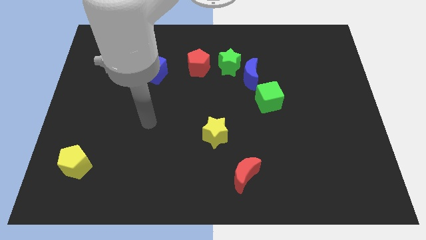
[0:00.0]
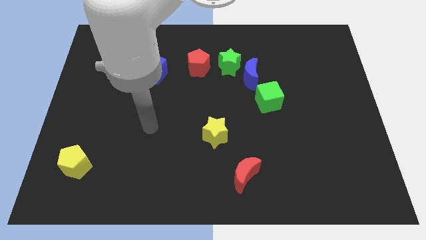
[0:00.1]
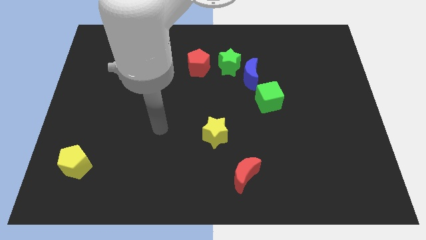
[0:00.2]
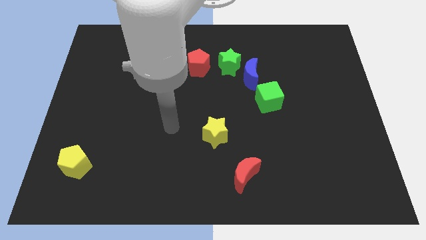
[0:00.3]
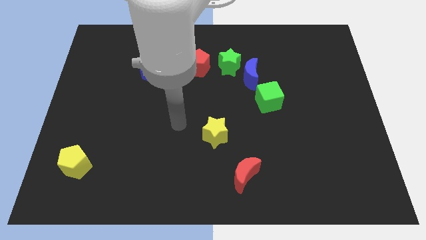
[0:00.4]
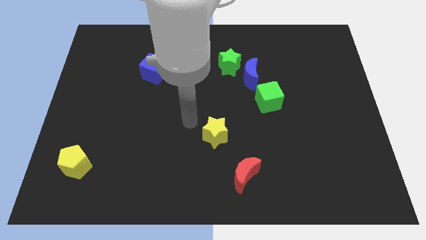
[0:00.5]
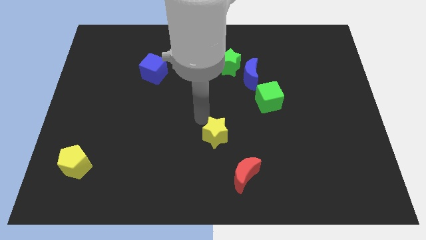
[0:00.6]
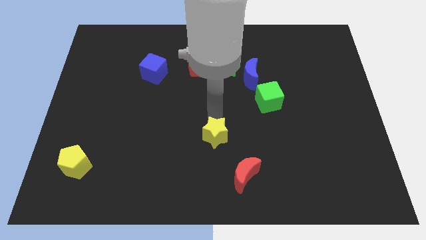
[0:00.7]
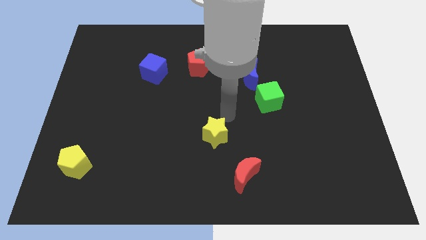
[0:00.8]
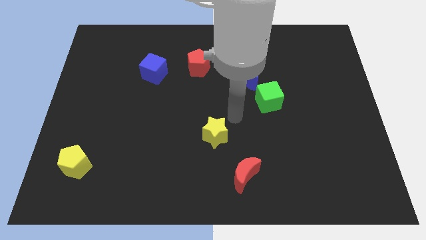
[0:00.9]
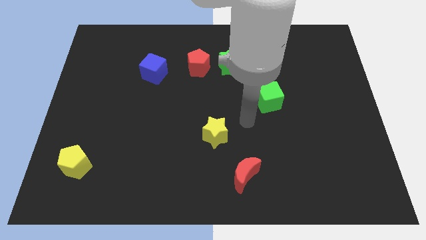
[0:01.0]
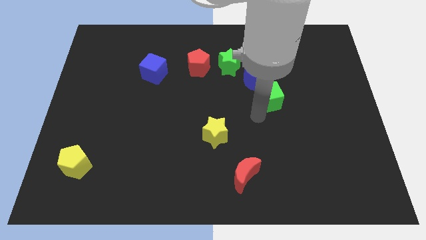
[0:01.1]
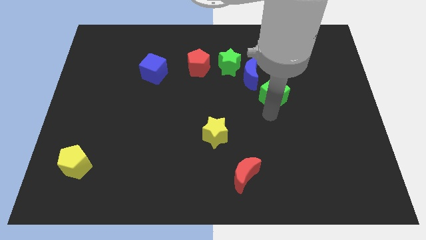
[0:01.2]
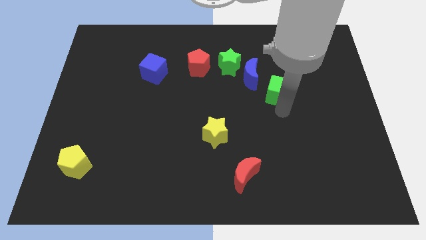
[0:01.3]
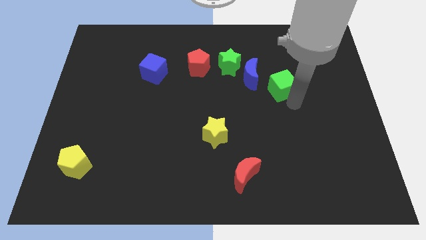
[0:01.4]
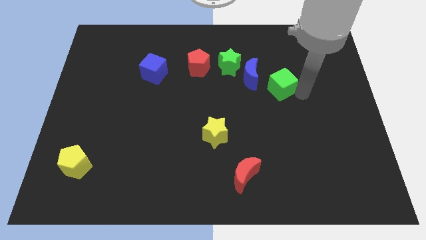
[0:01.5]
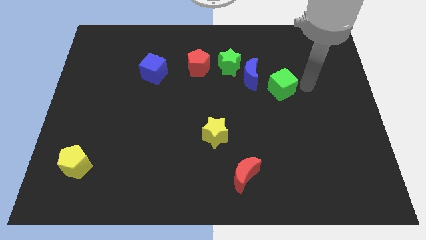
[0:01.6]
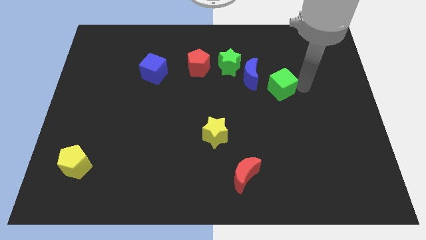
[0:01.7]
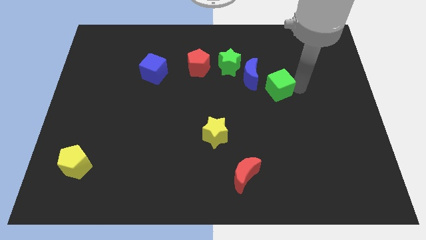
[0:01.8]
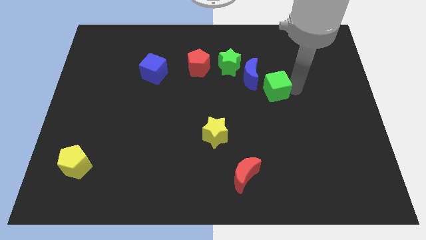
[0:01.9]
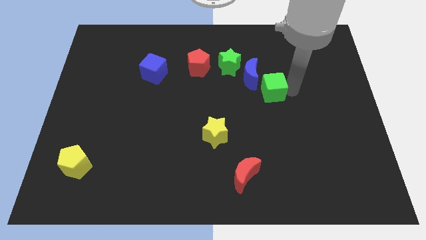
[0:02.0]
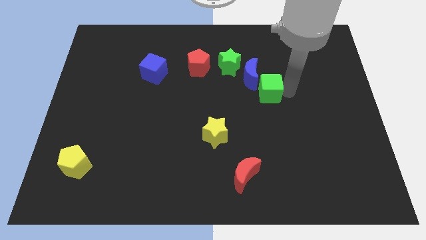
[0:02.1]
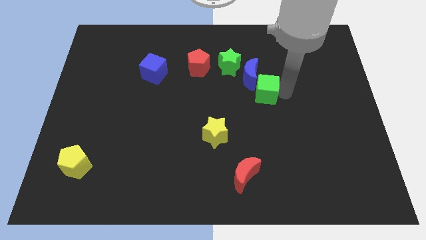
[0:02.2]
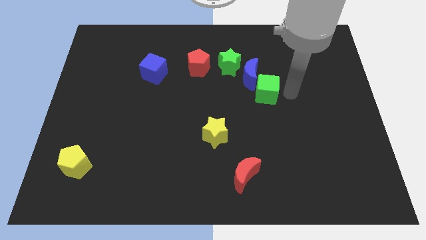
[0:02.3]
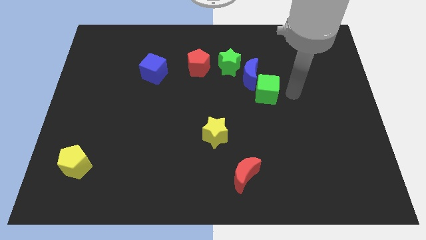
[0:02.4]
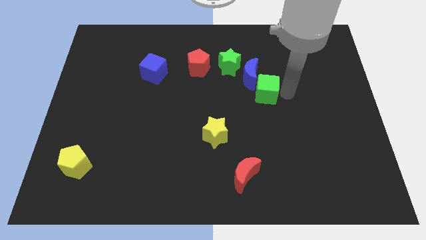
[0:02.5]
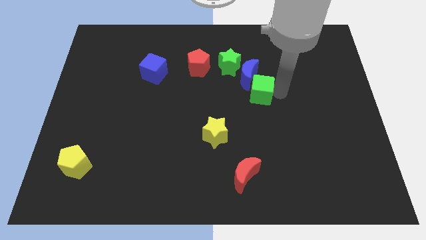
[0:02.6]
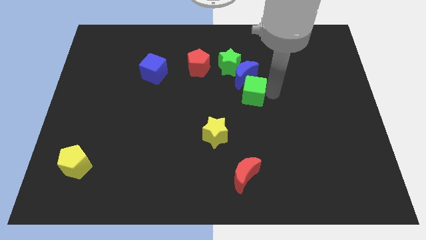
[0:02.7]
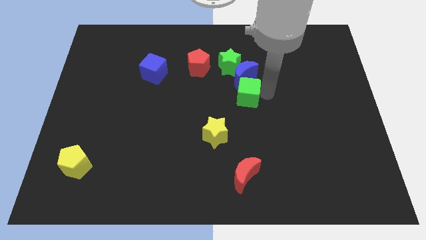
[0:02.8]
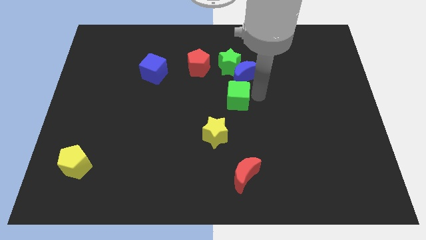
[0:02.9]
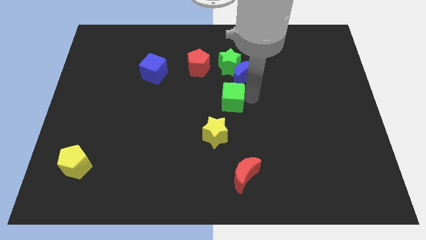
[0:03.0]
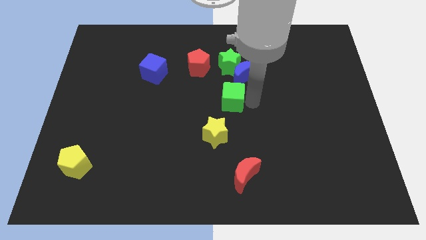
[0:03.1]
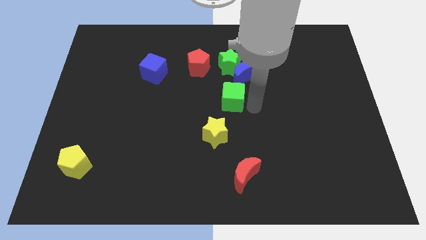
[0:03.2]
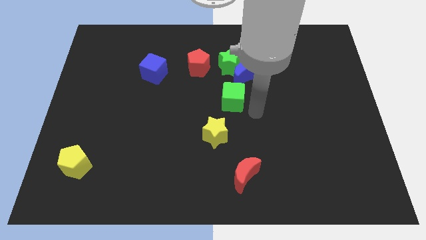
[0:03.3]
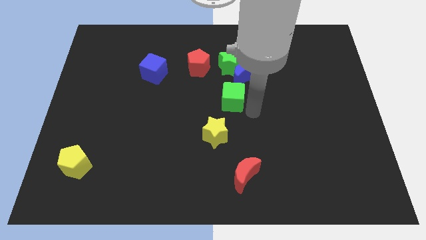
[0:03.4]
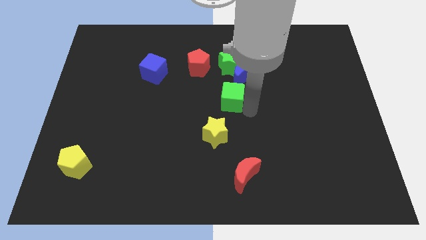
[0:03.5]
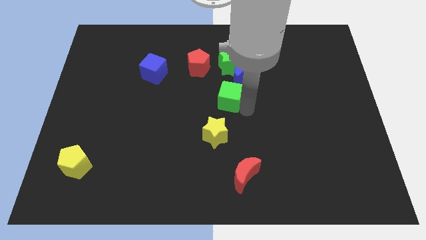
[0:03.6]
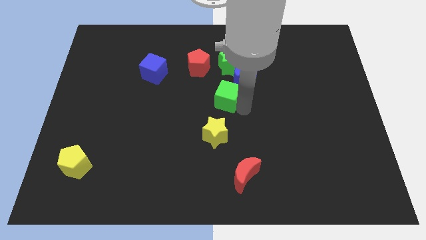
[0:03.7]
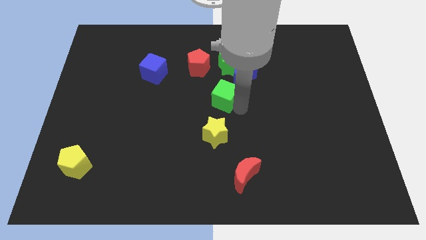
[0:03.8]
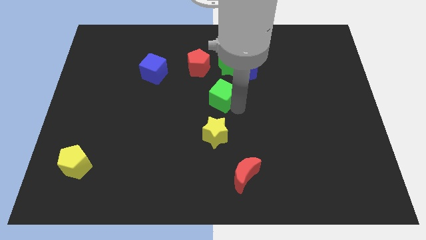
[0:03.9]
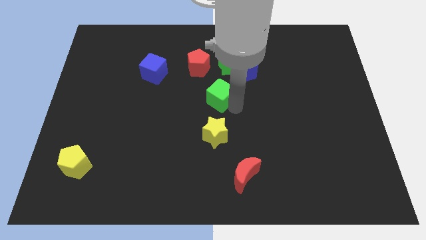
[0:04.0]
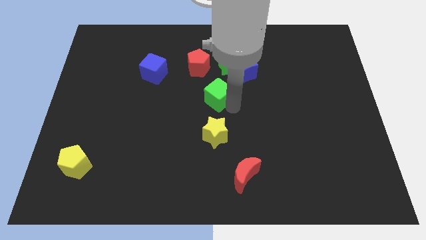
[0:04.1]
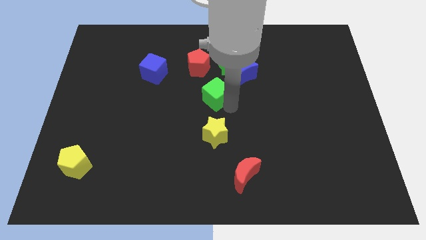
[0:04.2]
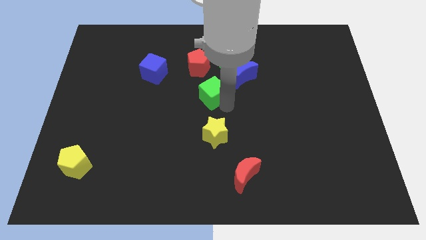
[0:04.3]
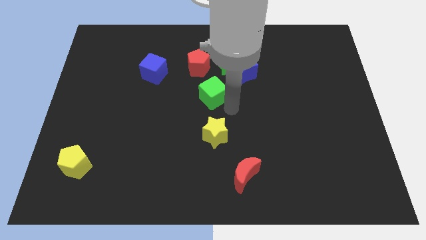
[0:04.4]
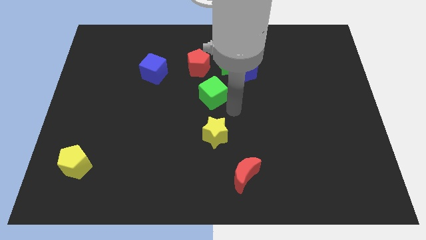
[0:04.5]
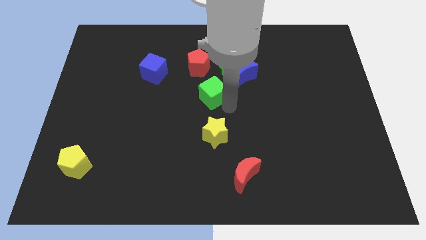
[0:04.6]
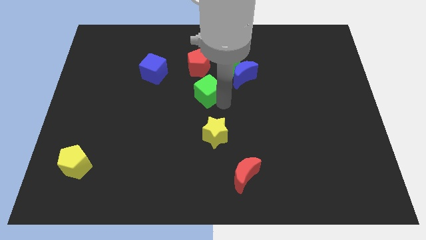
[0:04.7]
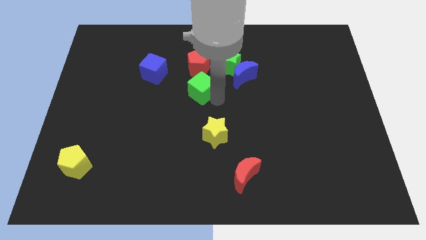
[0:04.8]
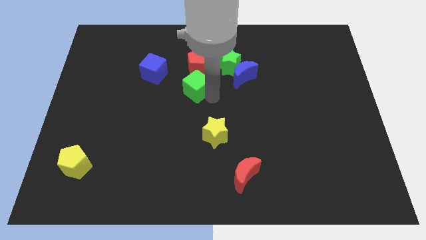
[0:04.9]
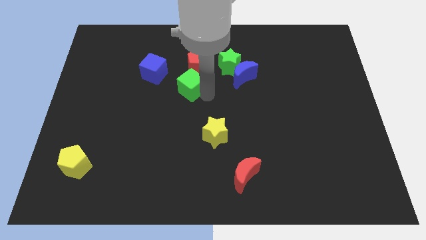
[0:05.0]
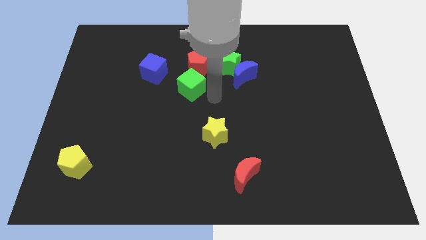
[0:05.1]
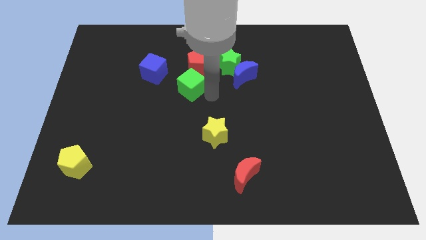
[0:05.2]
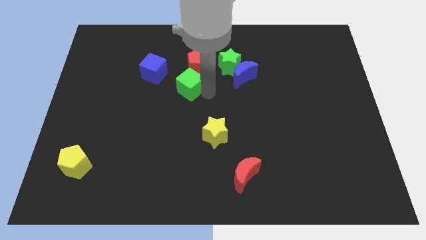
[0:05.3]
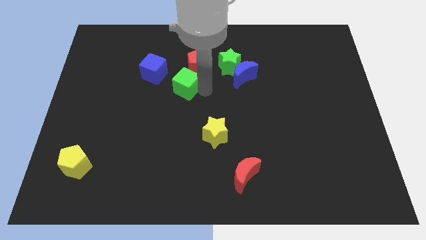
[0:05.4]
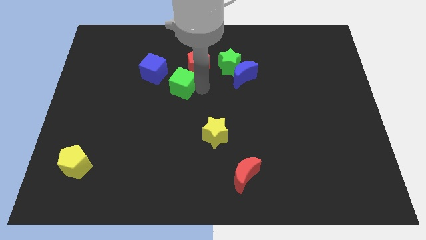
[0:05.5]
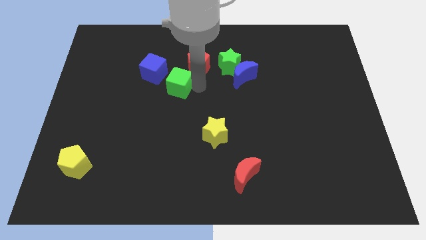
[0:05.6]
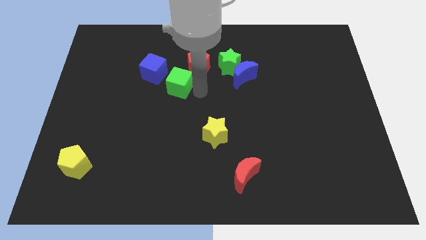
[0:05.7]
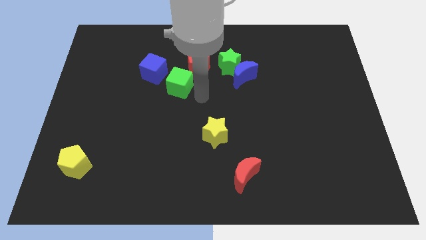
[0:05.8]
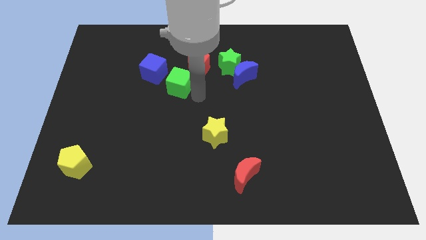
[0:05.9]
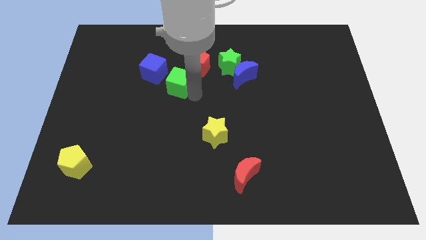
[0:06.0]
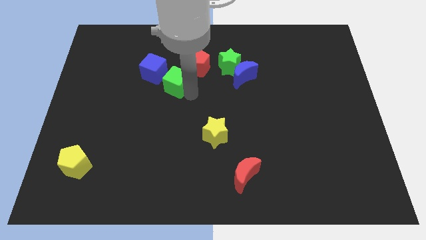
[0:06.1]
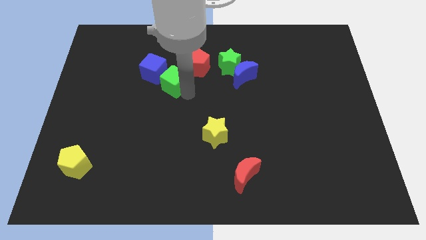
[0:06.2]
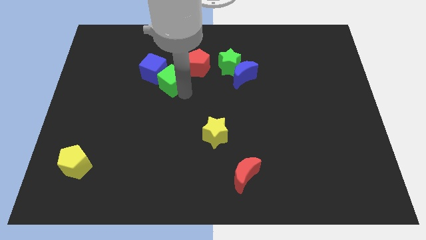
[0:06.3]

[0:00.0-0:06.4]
put the green cube close to the blue cube

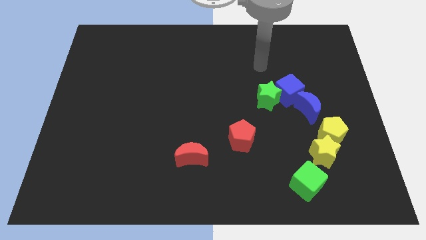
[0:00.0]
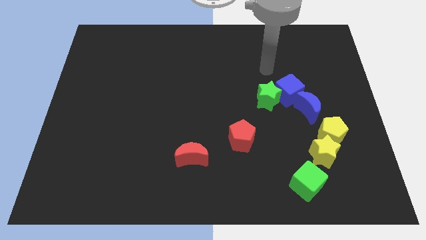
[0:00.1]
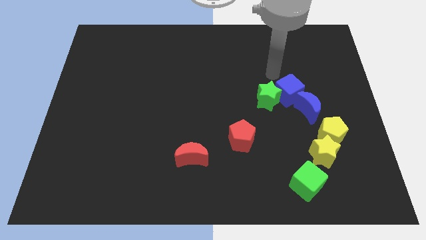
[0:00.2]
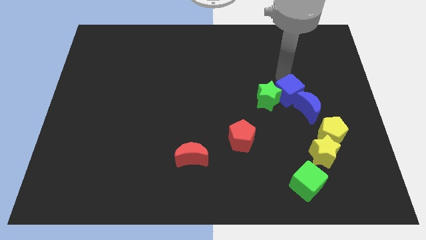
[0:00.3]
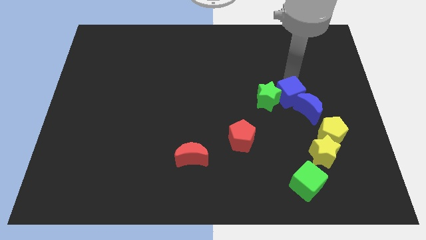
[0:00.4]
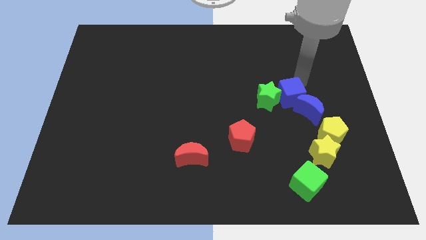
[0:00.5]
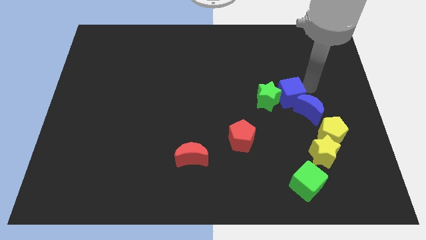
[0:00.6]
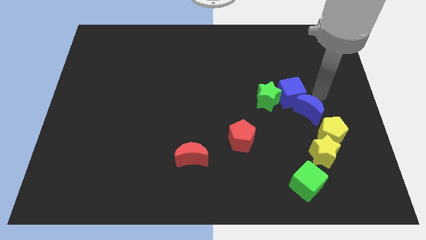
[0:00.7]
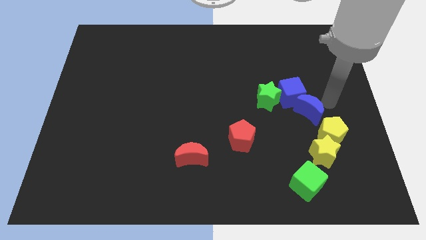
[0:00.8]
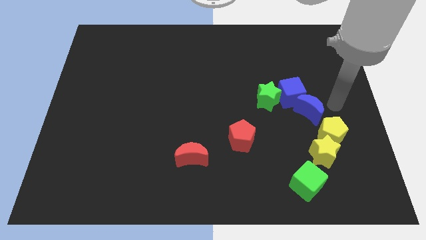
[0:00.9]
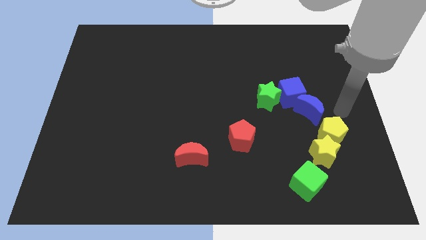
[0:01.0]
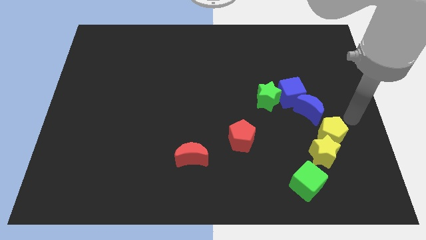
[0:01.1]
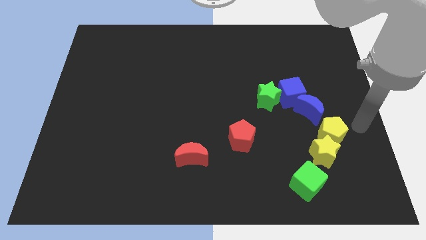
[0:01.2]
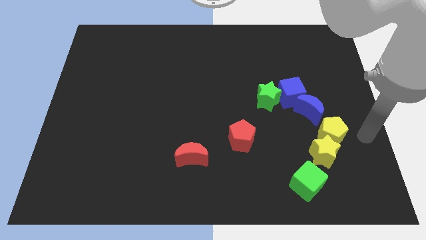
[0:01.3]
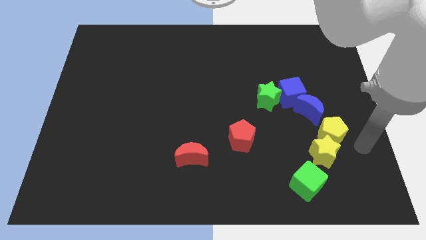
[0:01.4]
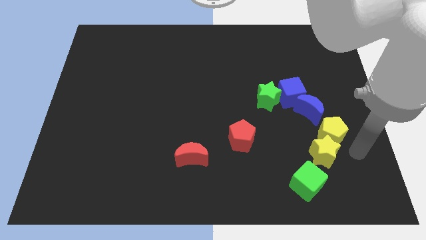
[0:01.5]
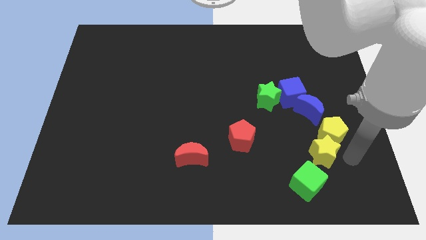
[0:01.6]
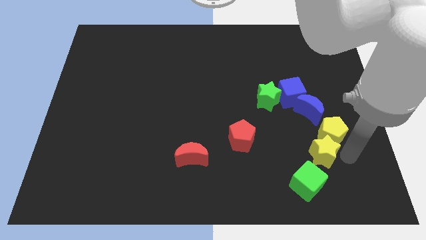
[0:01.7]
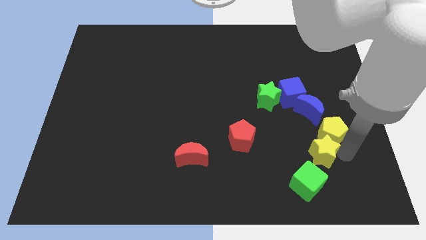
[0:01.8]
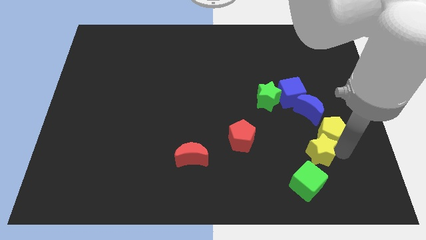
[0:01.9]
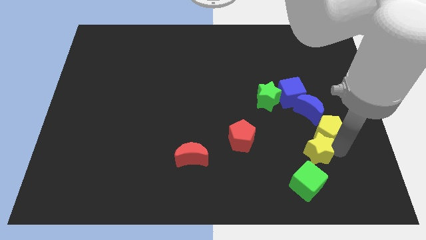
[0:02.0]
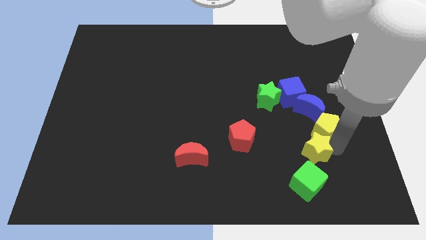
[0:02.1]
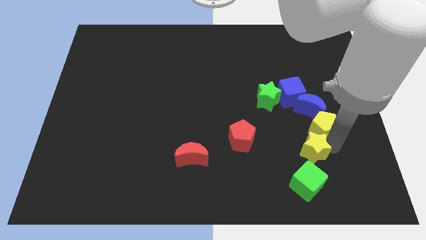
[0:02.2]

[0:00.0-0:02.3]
move the yellow pentagon to the blue moon
